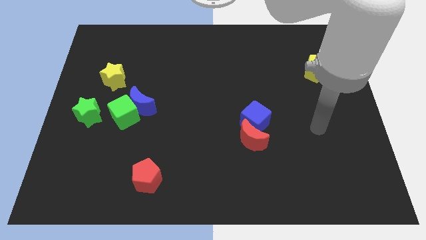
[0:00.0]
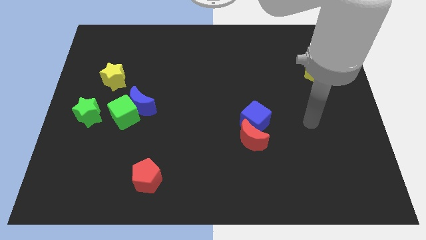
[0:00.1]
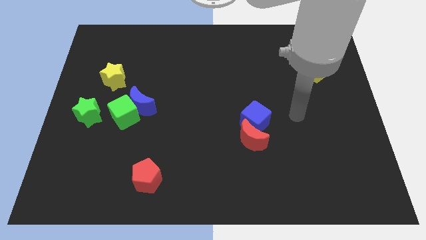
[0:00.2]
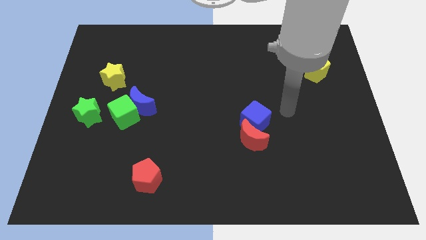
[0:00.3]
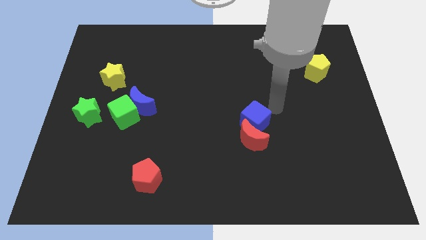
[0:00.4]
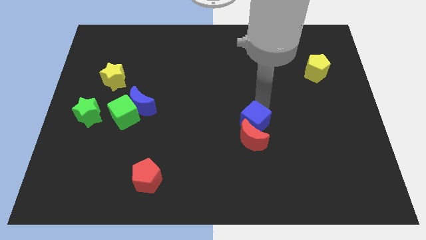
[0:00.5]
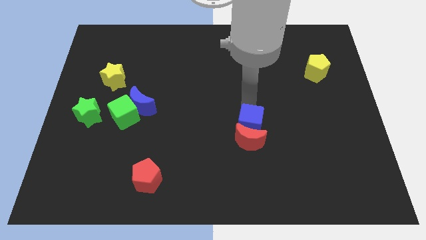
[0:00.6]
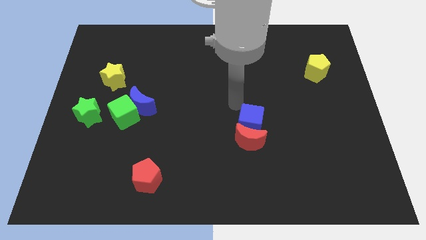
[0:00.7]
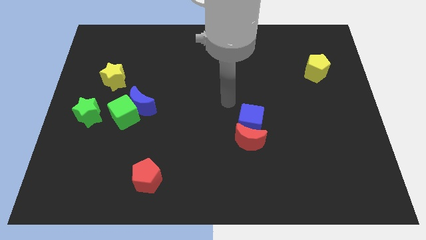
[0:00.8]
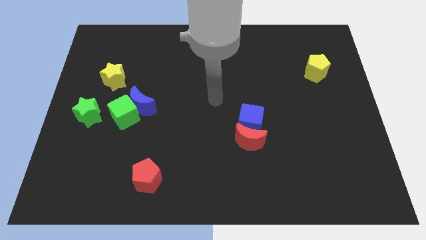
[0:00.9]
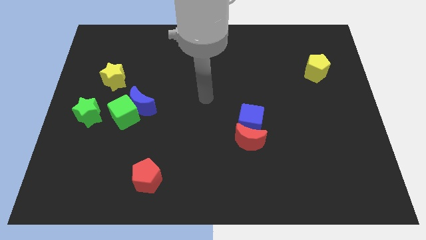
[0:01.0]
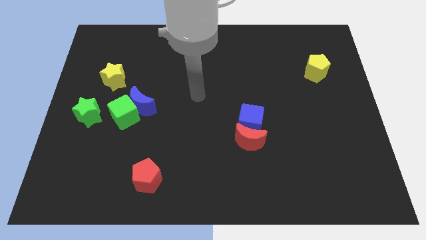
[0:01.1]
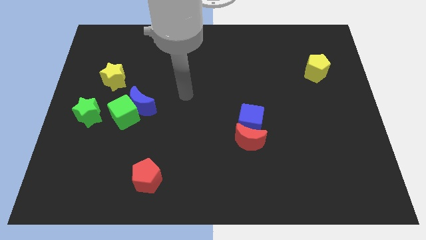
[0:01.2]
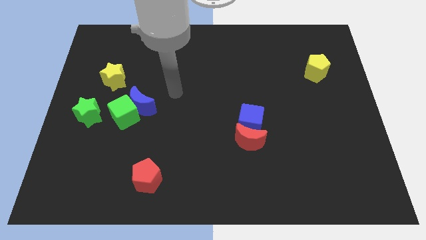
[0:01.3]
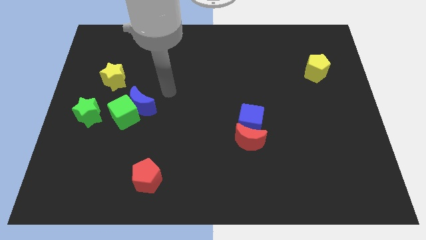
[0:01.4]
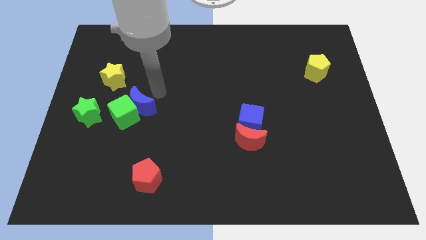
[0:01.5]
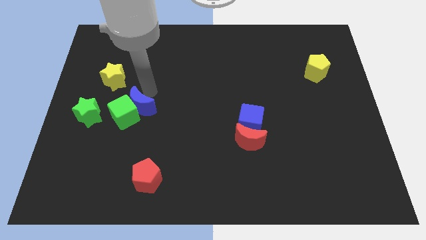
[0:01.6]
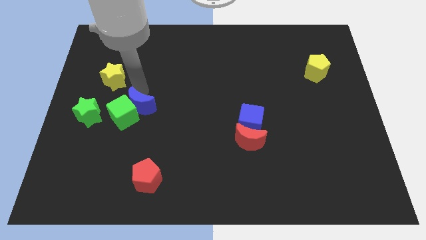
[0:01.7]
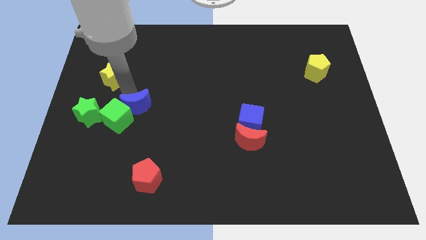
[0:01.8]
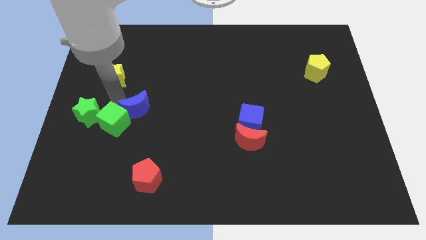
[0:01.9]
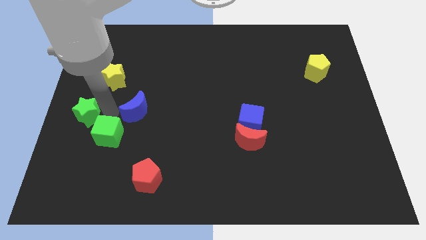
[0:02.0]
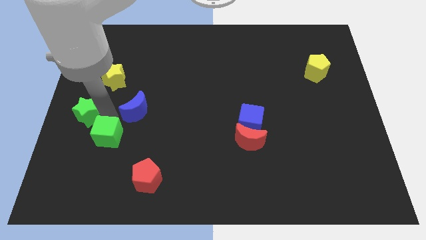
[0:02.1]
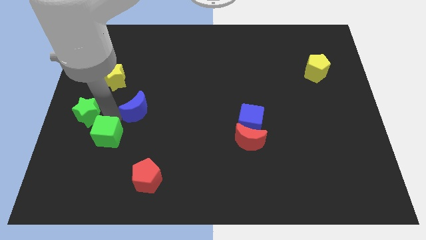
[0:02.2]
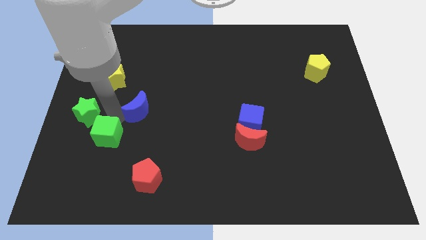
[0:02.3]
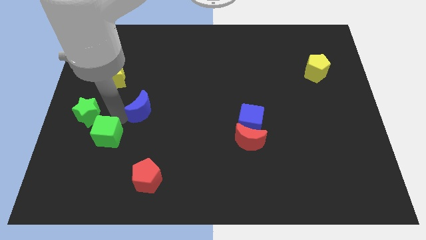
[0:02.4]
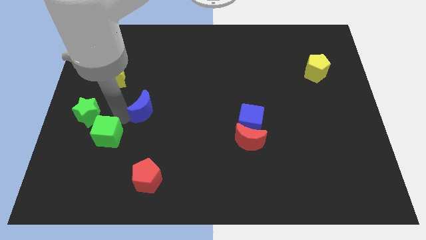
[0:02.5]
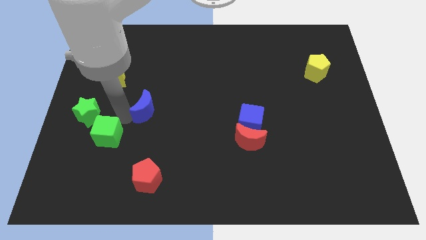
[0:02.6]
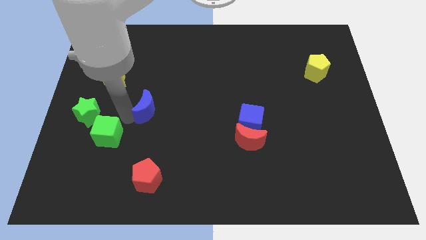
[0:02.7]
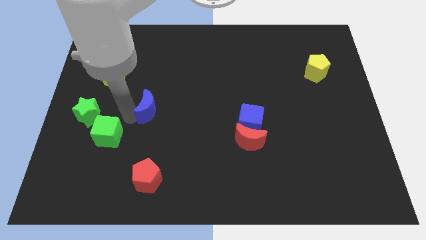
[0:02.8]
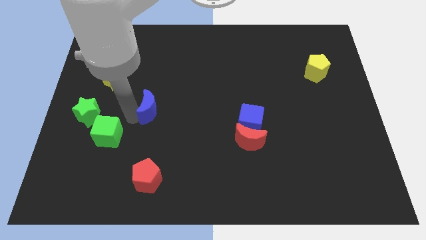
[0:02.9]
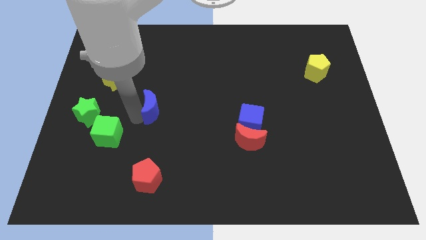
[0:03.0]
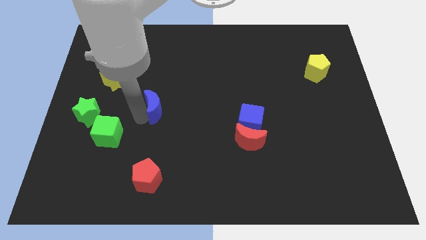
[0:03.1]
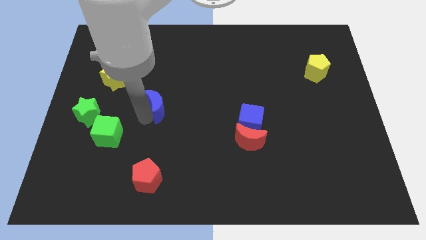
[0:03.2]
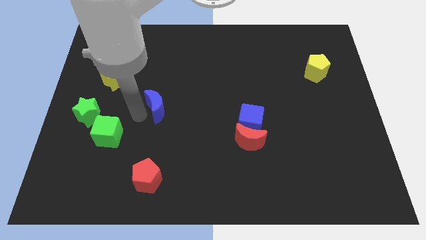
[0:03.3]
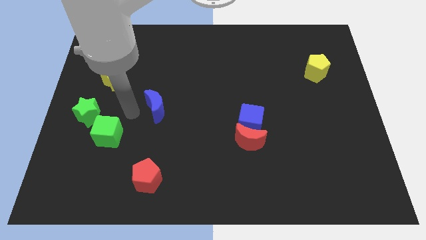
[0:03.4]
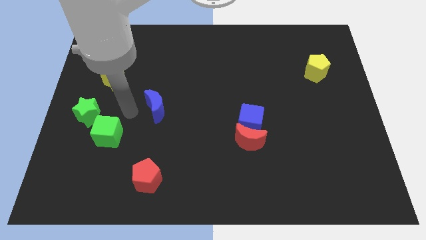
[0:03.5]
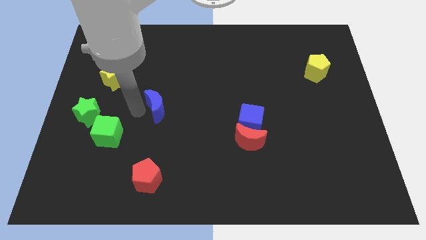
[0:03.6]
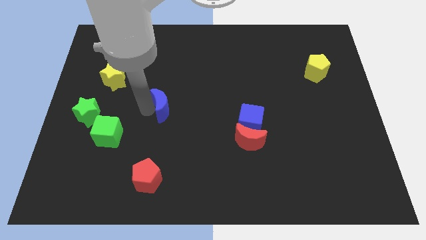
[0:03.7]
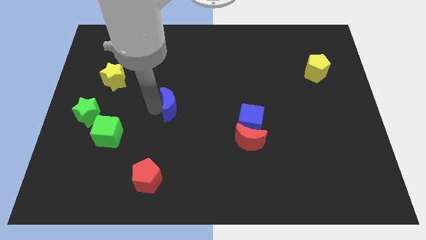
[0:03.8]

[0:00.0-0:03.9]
slightly slide the blue moon to the right

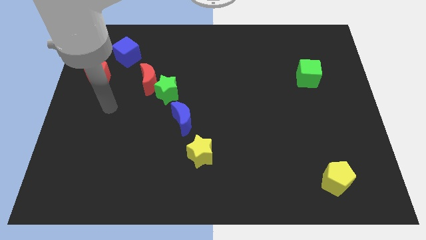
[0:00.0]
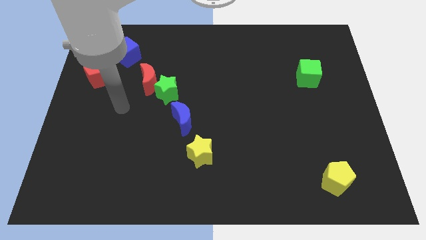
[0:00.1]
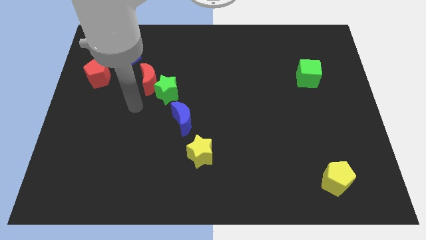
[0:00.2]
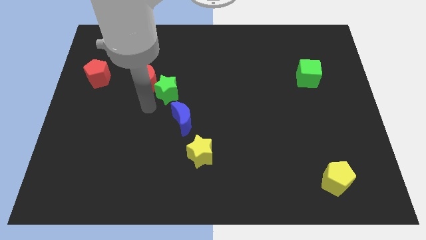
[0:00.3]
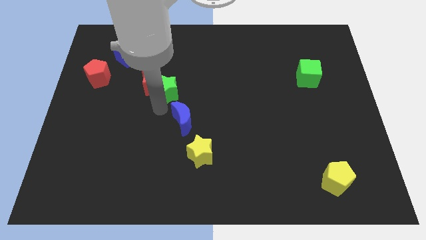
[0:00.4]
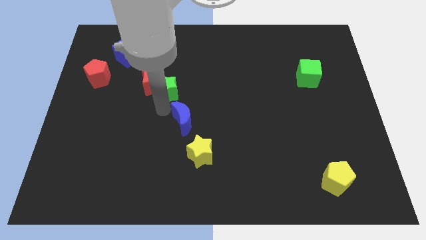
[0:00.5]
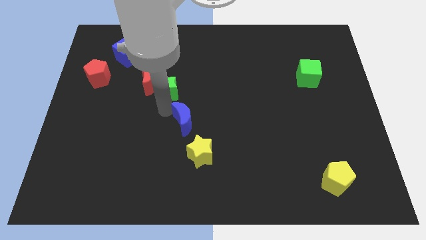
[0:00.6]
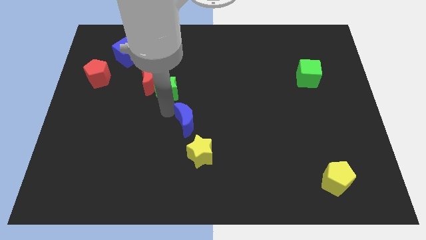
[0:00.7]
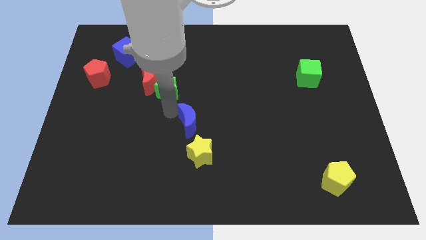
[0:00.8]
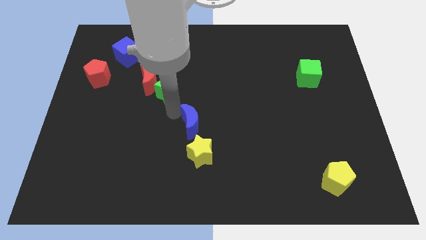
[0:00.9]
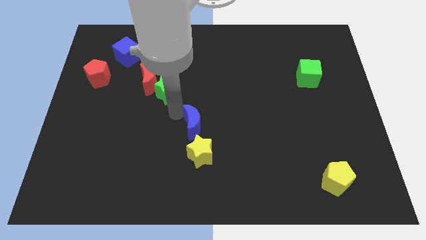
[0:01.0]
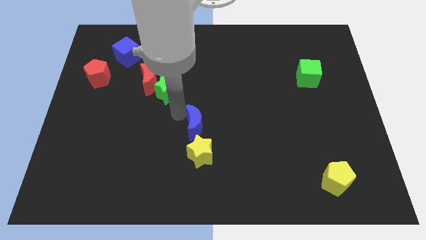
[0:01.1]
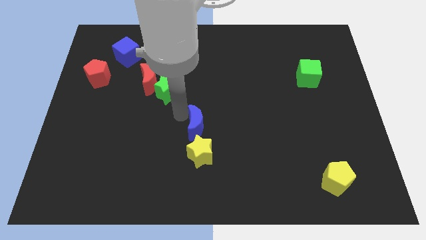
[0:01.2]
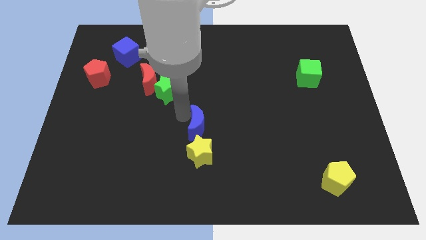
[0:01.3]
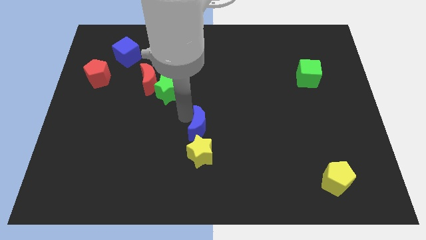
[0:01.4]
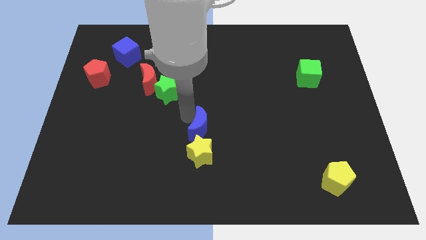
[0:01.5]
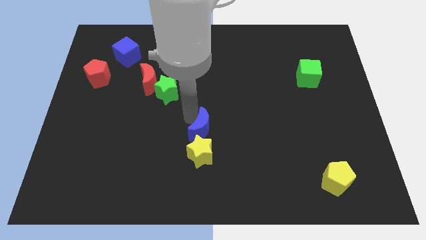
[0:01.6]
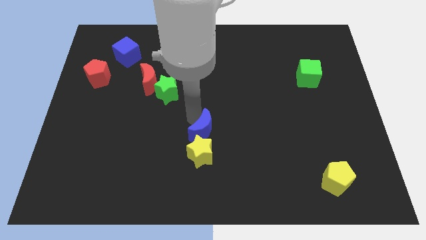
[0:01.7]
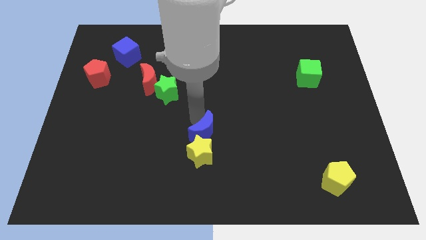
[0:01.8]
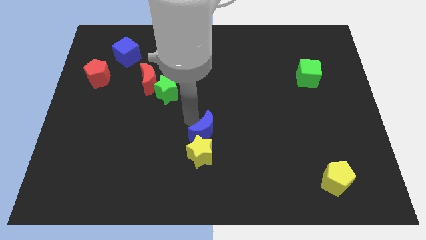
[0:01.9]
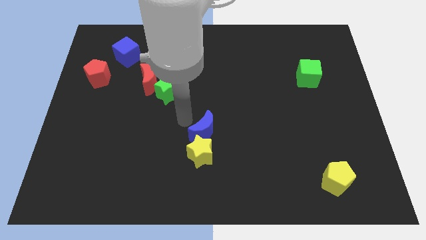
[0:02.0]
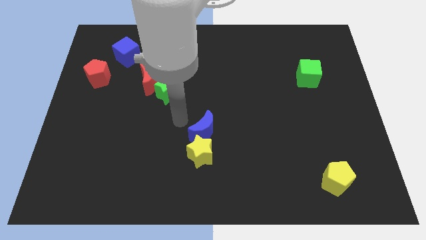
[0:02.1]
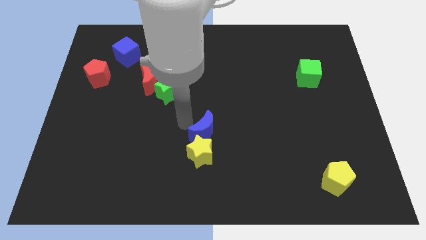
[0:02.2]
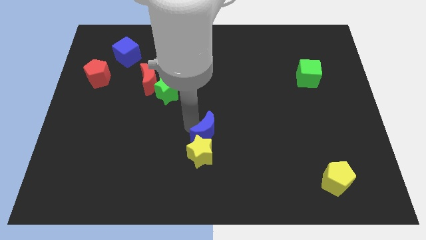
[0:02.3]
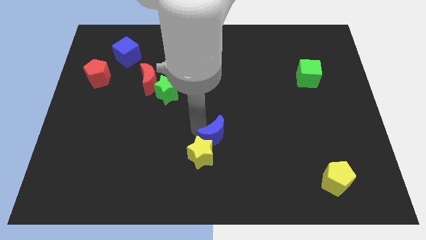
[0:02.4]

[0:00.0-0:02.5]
move the blue moon somewhat downwards and right diagonally

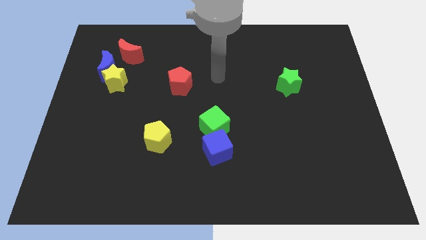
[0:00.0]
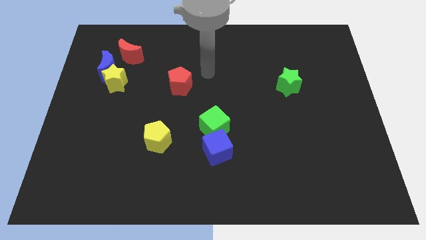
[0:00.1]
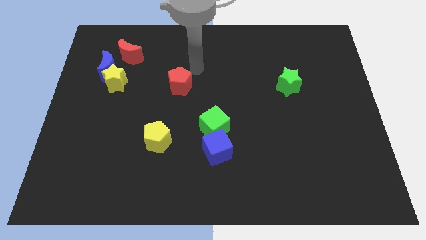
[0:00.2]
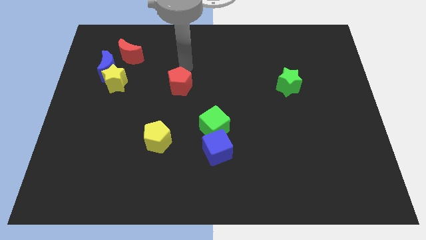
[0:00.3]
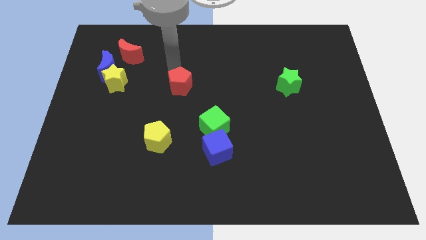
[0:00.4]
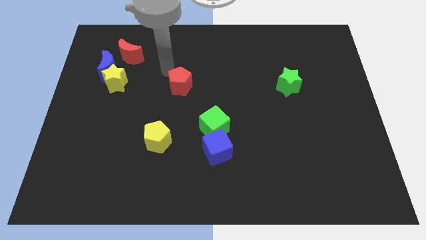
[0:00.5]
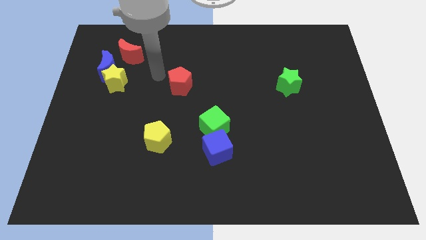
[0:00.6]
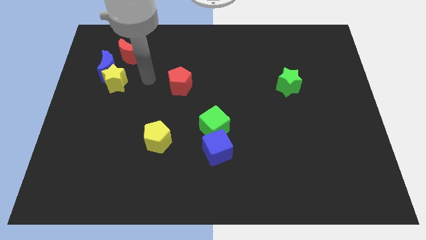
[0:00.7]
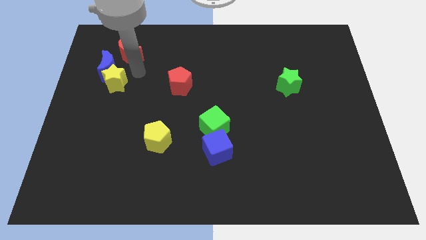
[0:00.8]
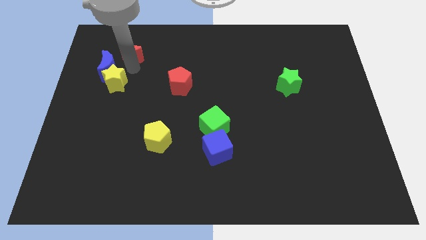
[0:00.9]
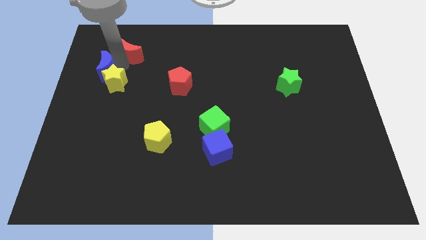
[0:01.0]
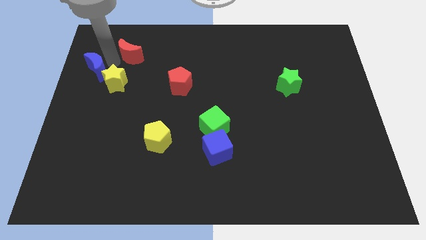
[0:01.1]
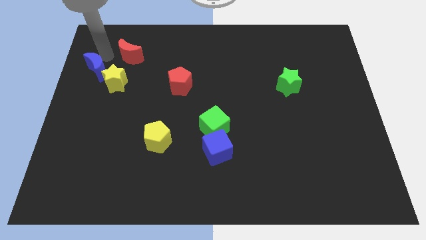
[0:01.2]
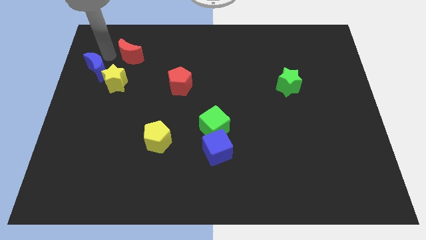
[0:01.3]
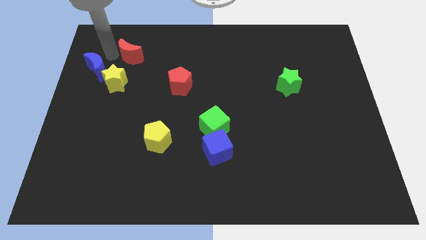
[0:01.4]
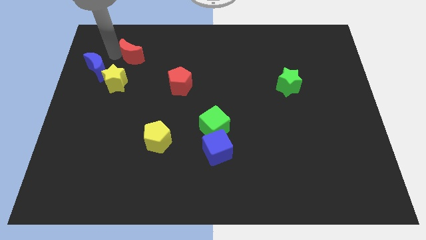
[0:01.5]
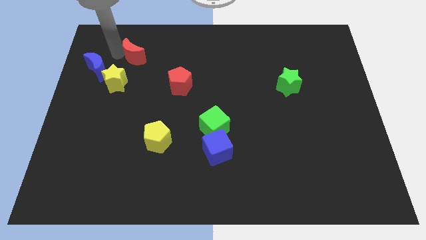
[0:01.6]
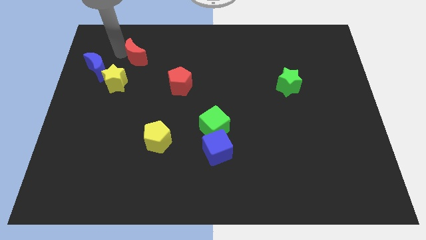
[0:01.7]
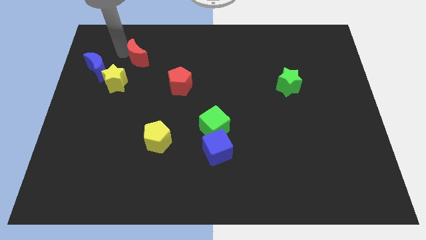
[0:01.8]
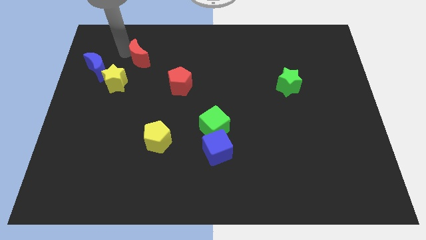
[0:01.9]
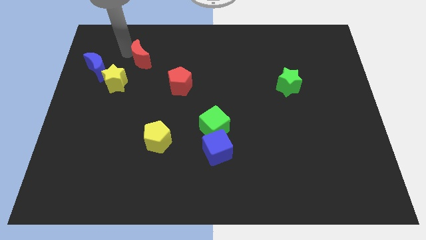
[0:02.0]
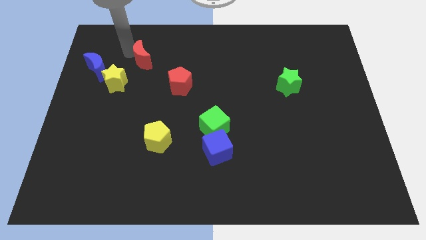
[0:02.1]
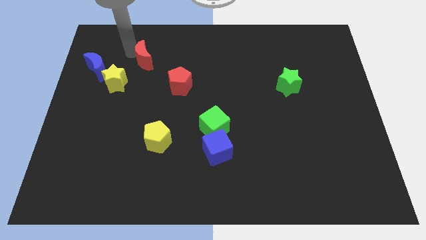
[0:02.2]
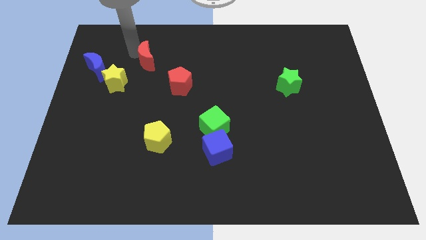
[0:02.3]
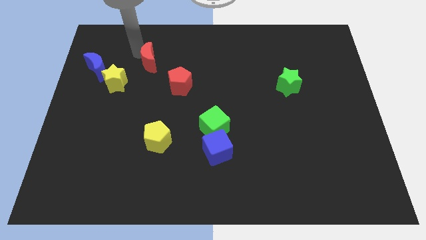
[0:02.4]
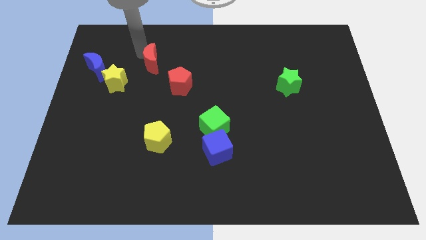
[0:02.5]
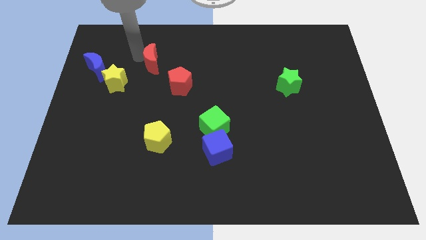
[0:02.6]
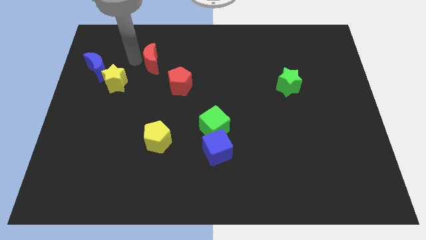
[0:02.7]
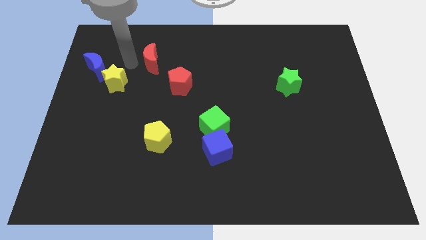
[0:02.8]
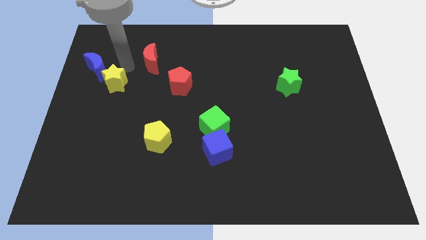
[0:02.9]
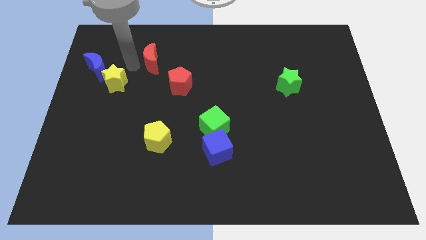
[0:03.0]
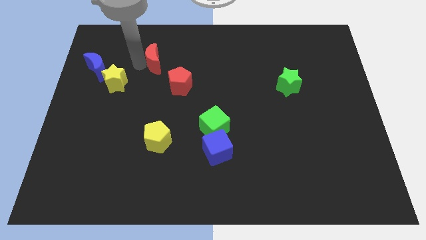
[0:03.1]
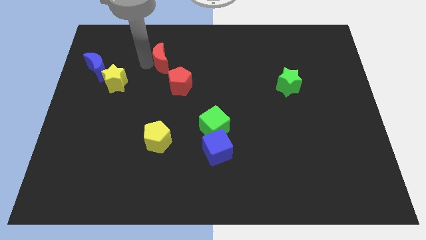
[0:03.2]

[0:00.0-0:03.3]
slightly push the red moon to the right
